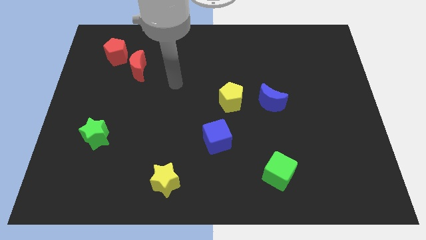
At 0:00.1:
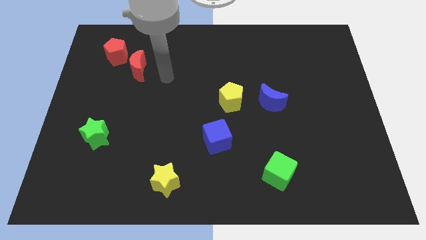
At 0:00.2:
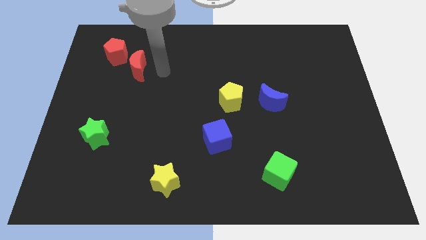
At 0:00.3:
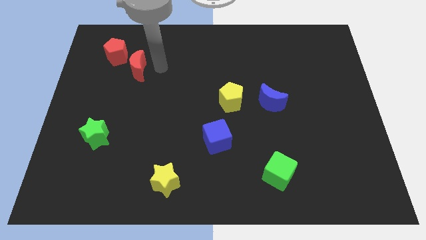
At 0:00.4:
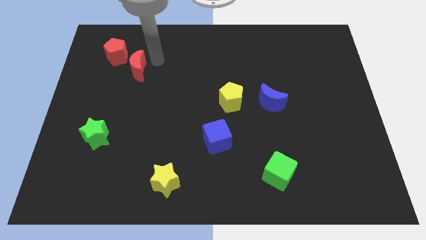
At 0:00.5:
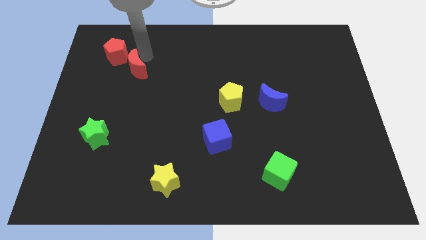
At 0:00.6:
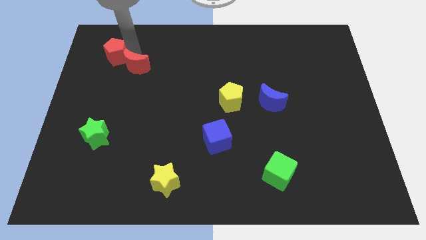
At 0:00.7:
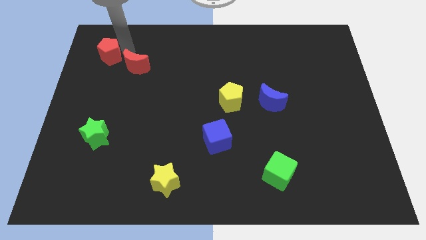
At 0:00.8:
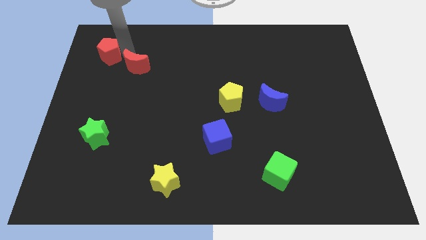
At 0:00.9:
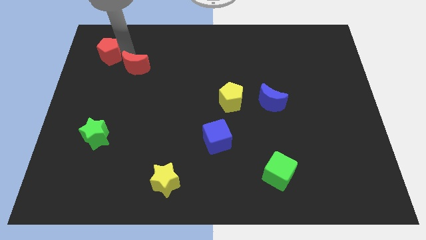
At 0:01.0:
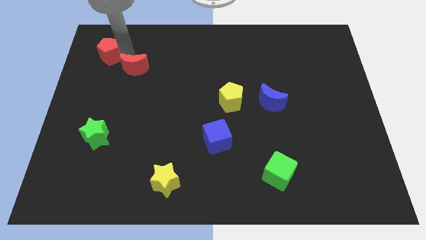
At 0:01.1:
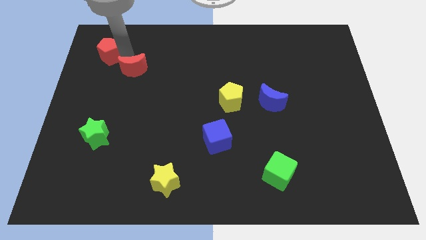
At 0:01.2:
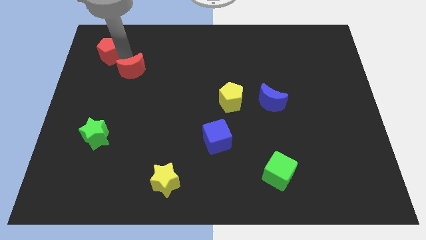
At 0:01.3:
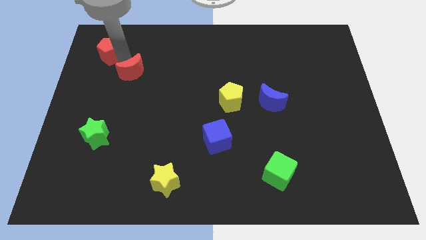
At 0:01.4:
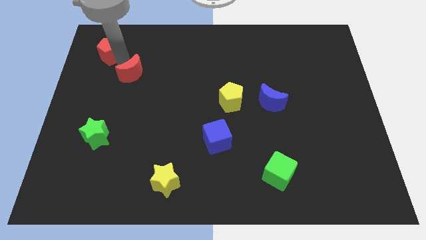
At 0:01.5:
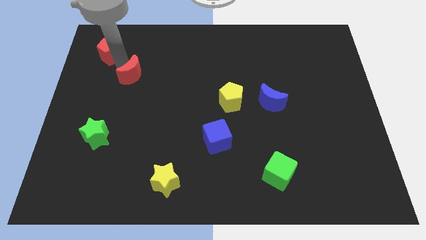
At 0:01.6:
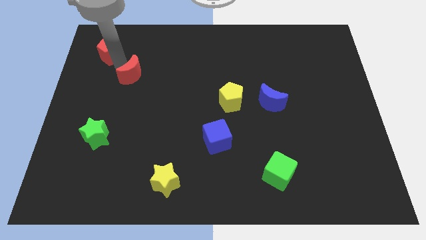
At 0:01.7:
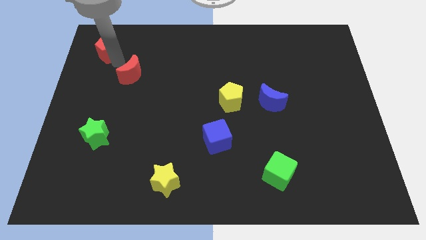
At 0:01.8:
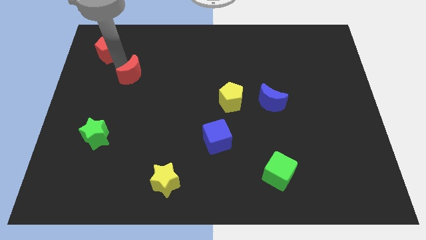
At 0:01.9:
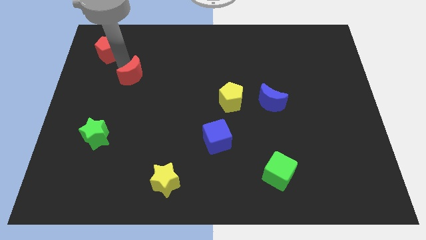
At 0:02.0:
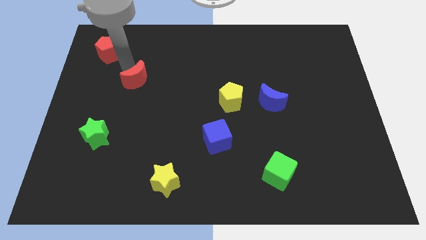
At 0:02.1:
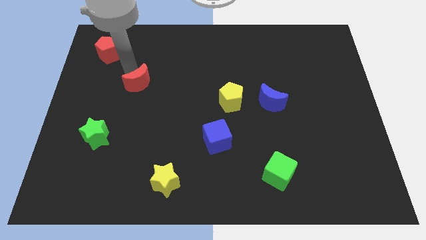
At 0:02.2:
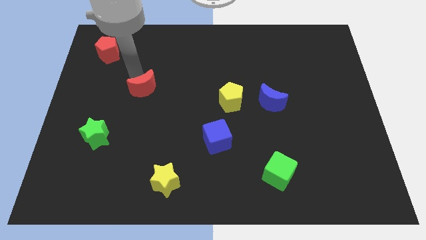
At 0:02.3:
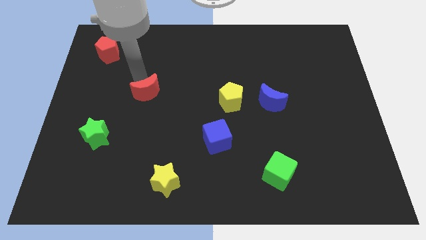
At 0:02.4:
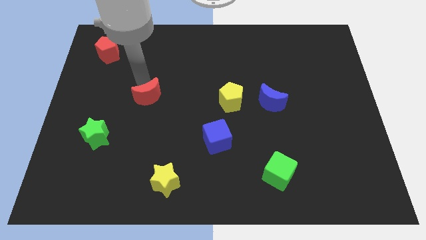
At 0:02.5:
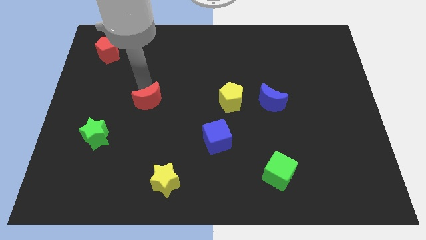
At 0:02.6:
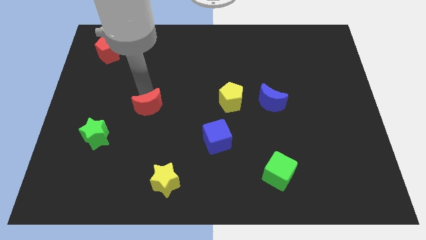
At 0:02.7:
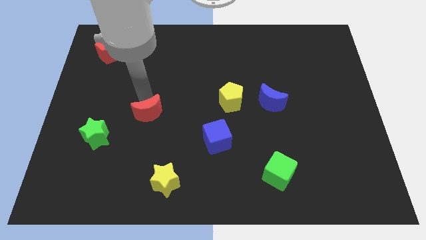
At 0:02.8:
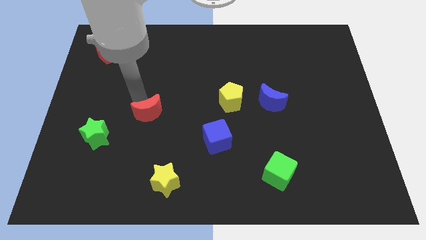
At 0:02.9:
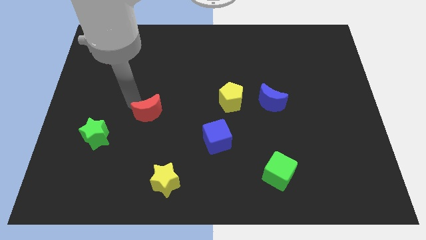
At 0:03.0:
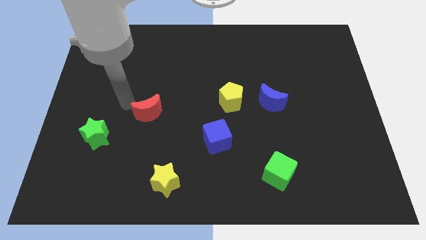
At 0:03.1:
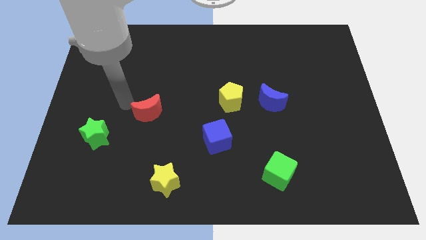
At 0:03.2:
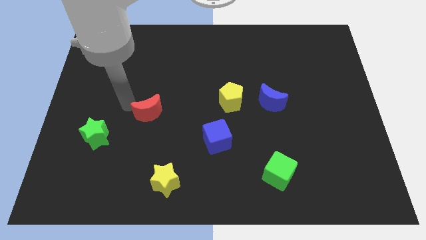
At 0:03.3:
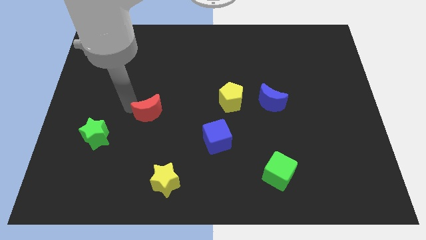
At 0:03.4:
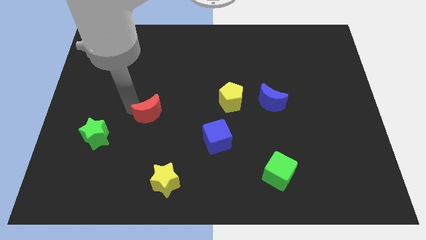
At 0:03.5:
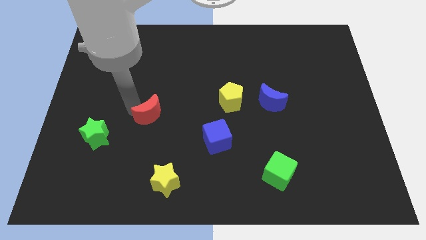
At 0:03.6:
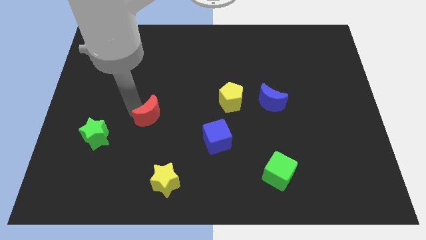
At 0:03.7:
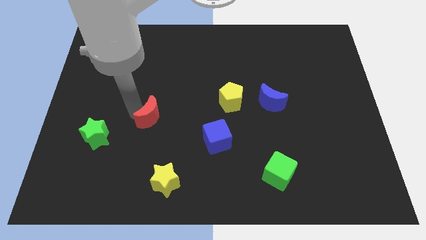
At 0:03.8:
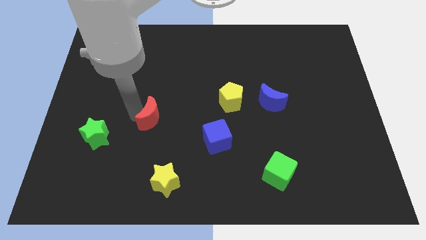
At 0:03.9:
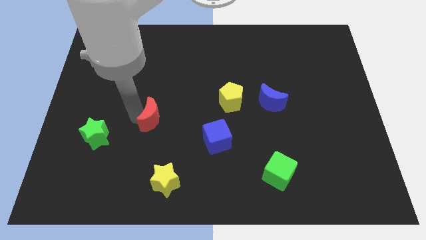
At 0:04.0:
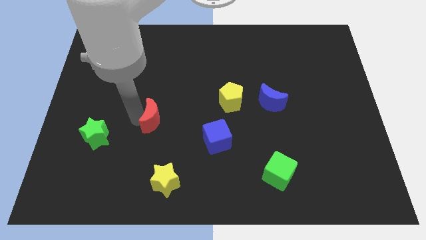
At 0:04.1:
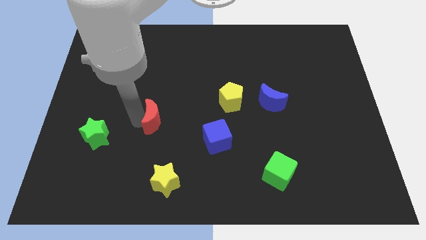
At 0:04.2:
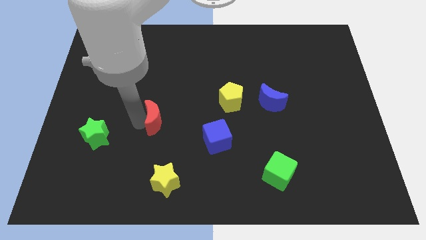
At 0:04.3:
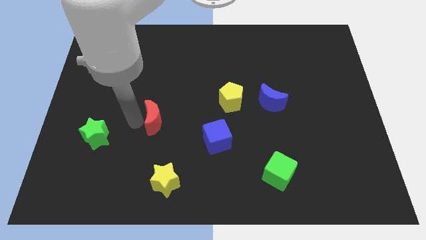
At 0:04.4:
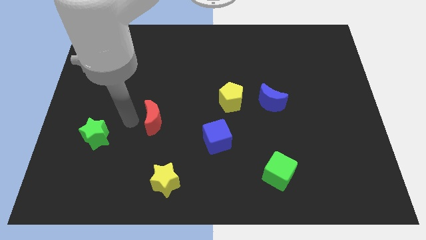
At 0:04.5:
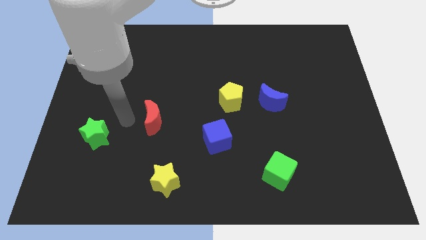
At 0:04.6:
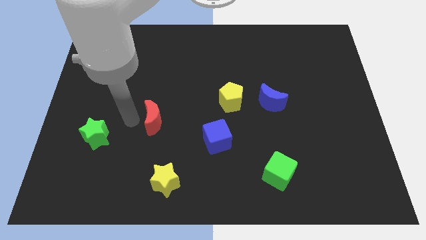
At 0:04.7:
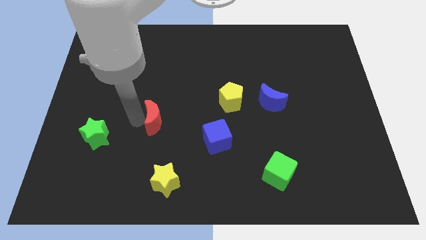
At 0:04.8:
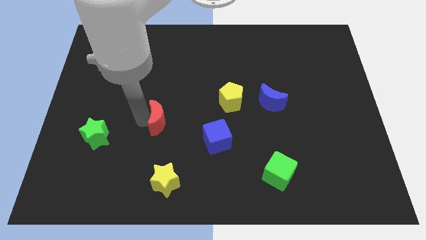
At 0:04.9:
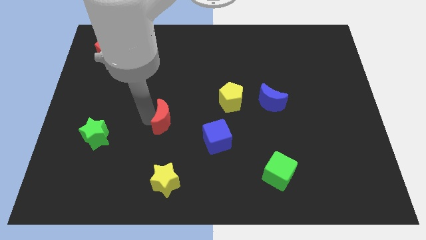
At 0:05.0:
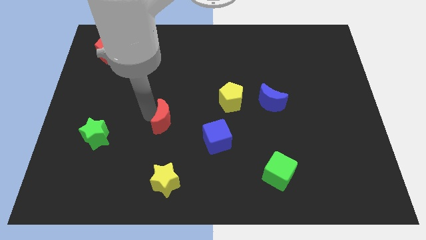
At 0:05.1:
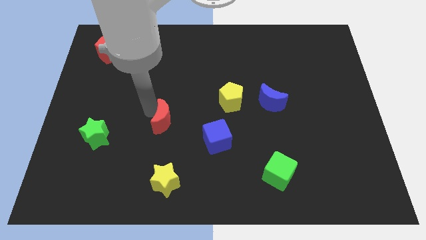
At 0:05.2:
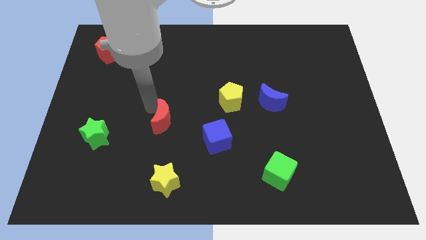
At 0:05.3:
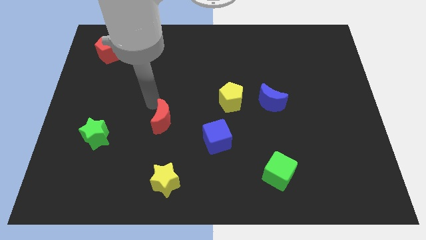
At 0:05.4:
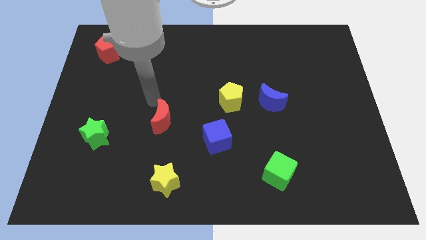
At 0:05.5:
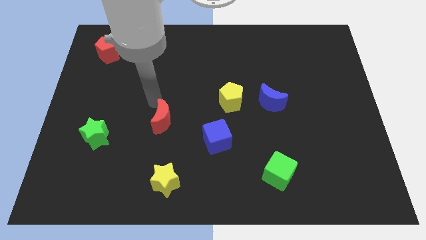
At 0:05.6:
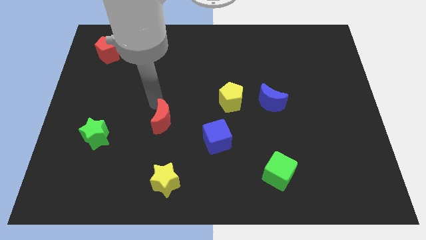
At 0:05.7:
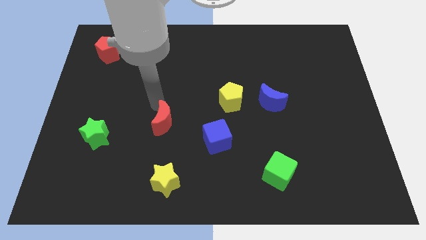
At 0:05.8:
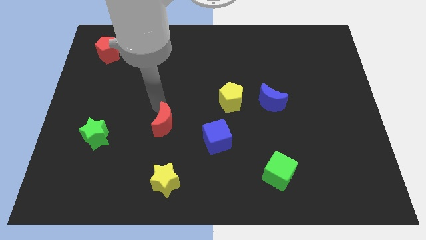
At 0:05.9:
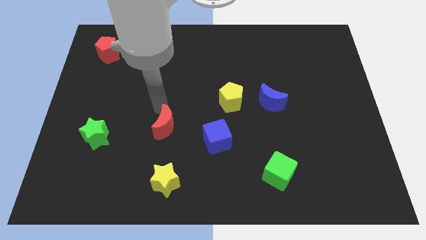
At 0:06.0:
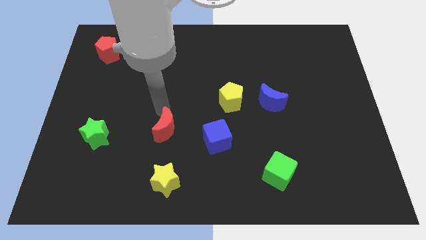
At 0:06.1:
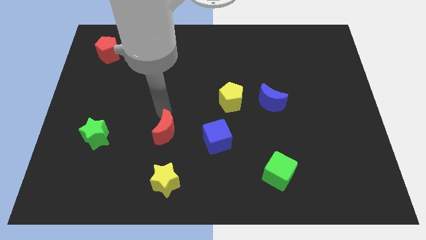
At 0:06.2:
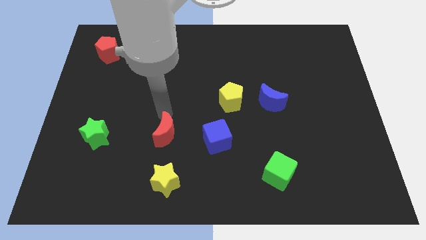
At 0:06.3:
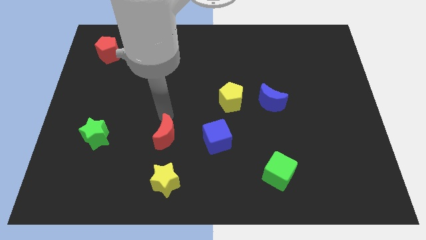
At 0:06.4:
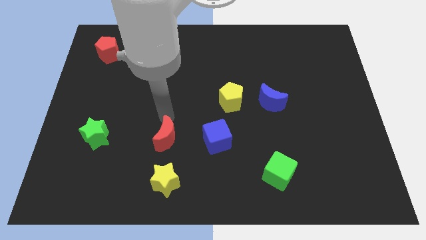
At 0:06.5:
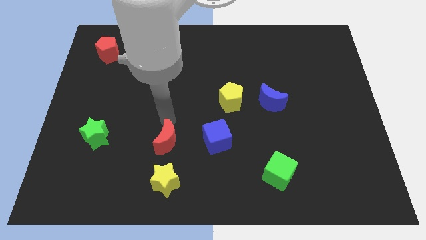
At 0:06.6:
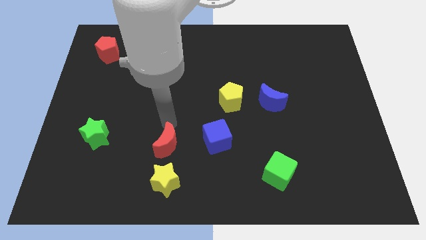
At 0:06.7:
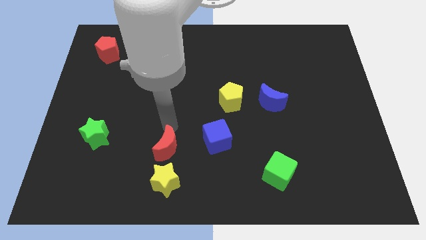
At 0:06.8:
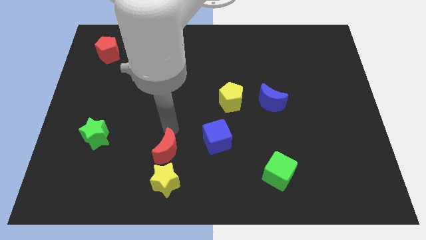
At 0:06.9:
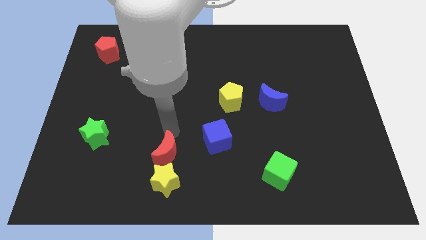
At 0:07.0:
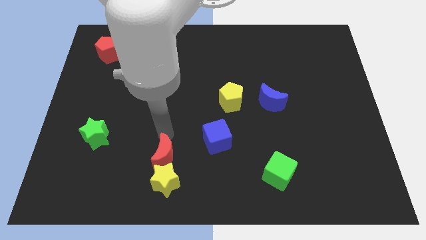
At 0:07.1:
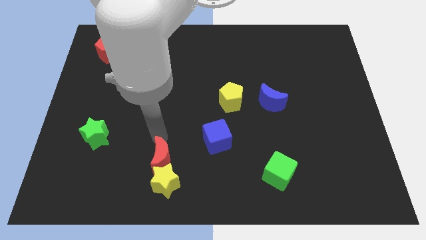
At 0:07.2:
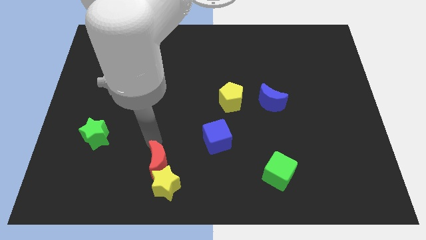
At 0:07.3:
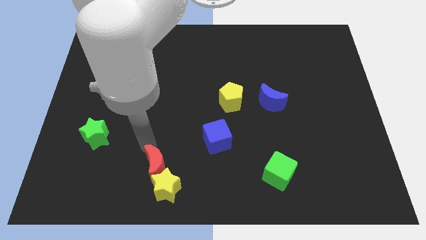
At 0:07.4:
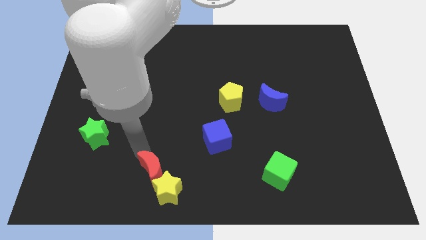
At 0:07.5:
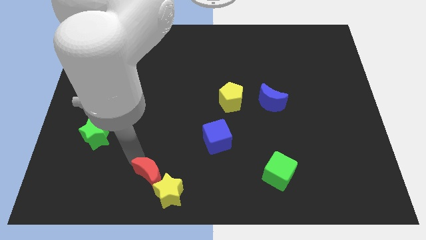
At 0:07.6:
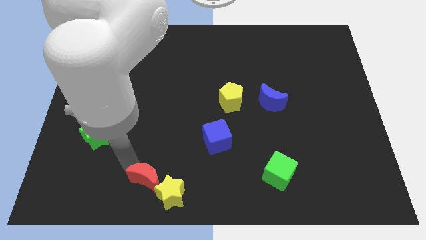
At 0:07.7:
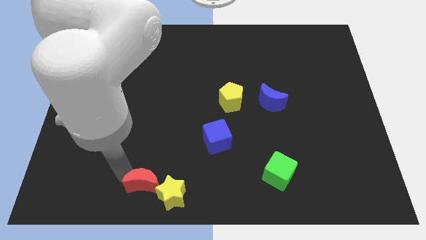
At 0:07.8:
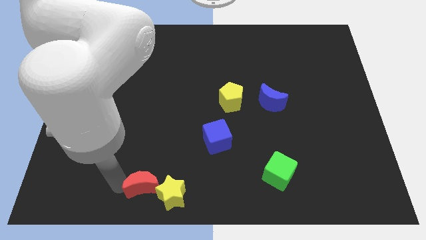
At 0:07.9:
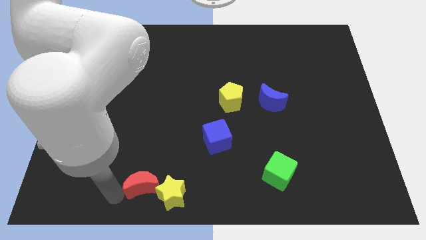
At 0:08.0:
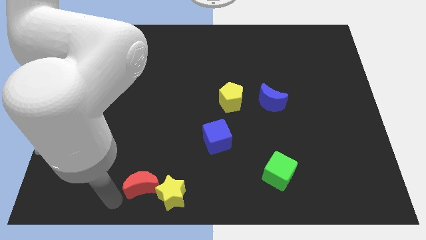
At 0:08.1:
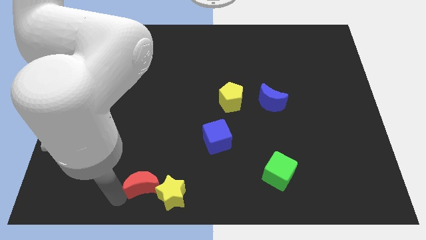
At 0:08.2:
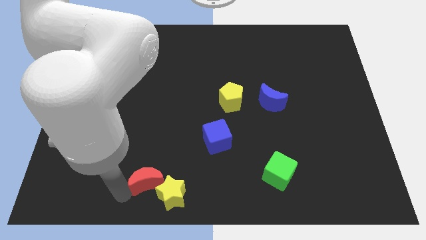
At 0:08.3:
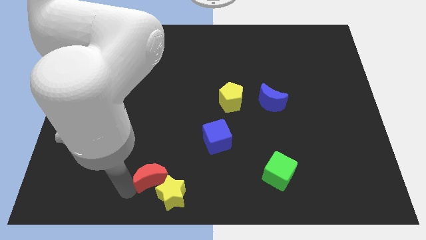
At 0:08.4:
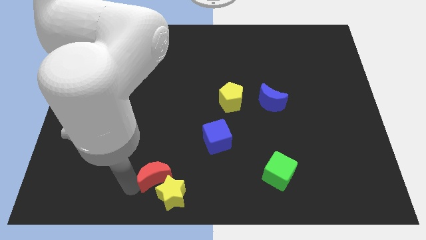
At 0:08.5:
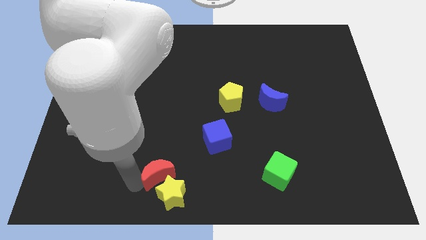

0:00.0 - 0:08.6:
put the red moon to the bottom
